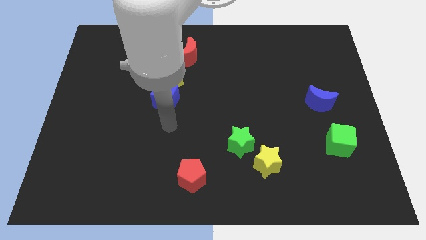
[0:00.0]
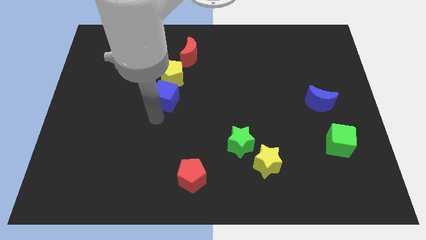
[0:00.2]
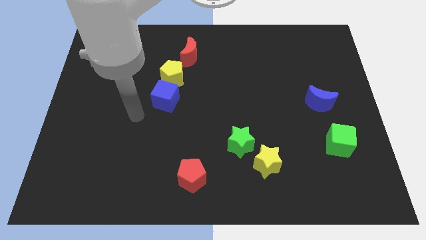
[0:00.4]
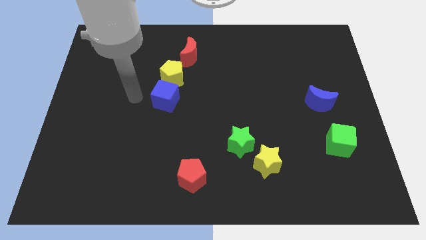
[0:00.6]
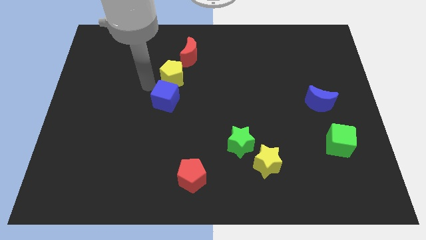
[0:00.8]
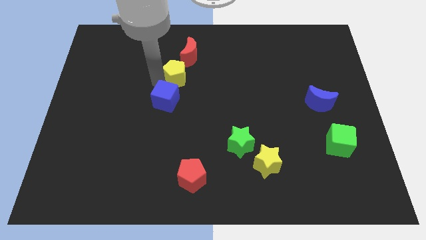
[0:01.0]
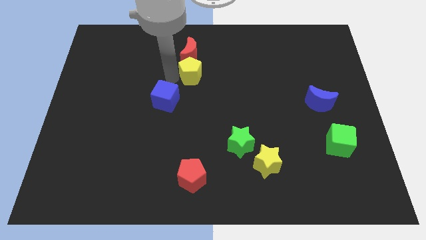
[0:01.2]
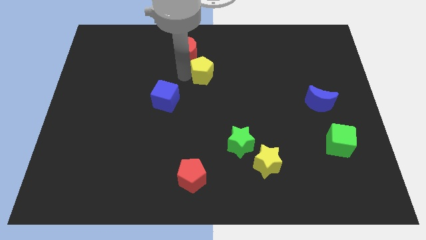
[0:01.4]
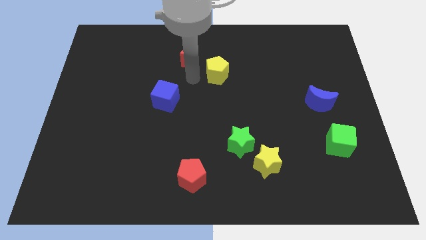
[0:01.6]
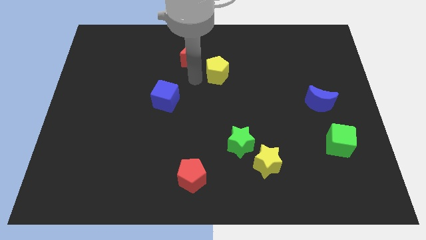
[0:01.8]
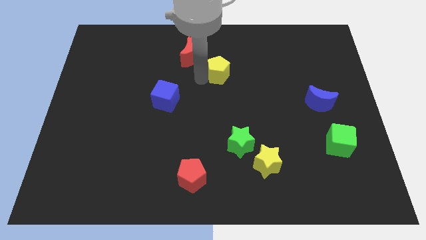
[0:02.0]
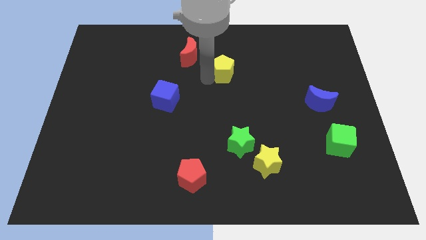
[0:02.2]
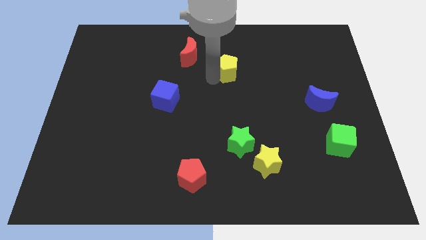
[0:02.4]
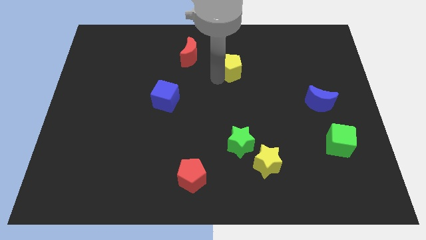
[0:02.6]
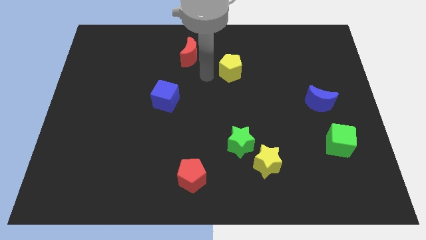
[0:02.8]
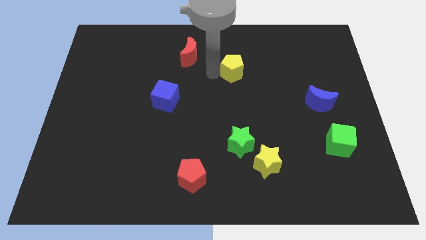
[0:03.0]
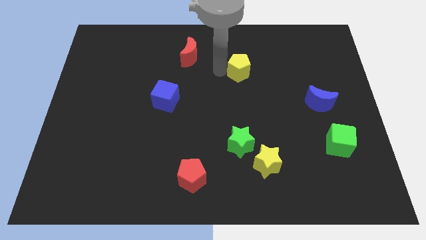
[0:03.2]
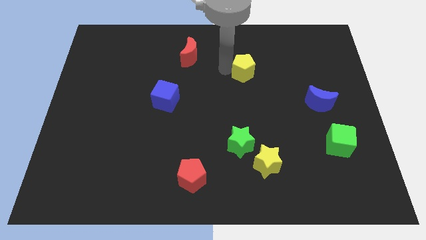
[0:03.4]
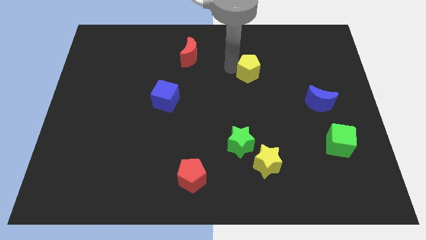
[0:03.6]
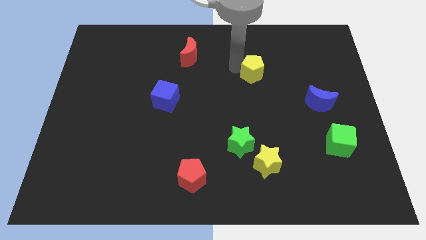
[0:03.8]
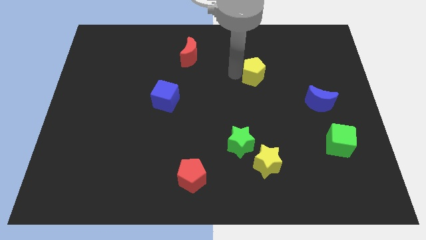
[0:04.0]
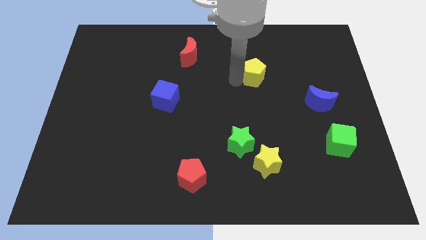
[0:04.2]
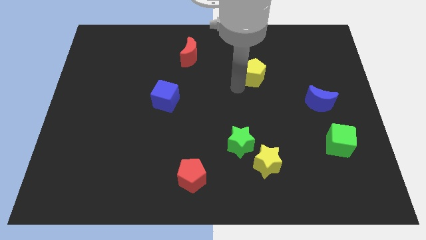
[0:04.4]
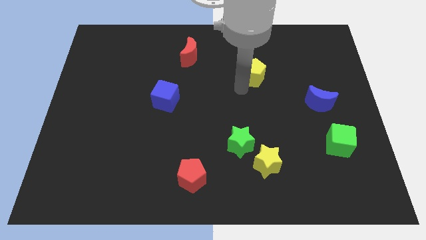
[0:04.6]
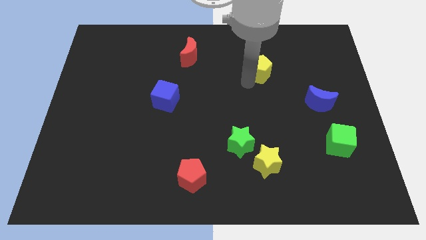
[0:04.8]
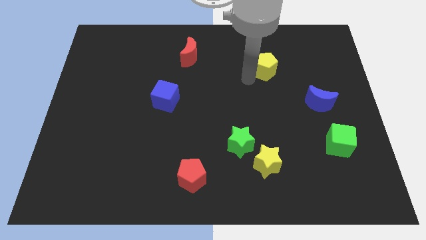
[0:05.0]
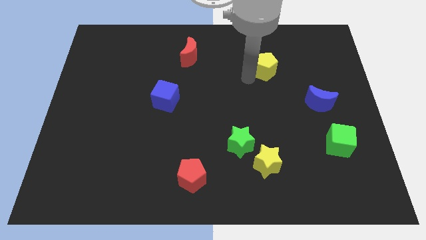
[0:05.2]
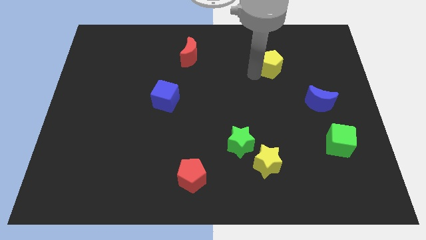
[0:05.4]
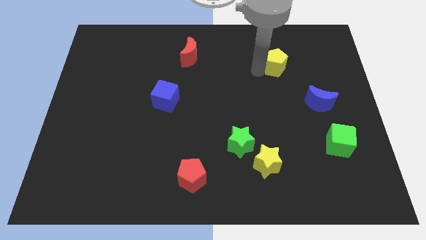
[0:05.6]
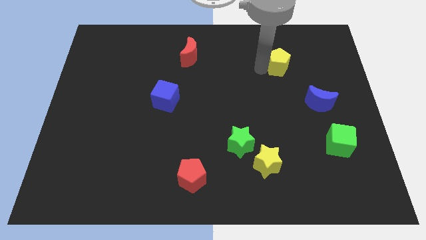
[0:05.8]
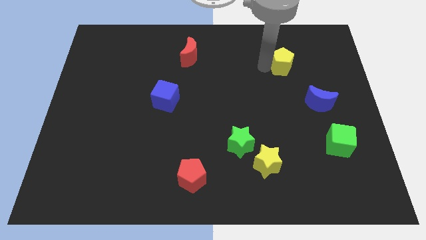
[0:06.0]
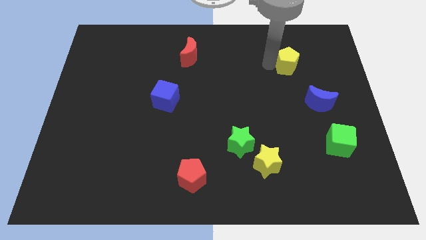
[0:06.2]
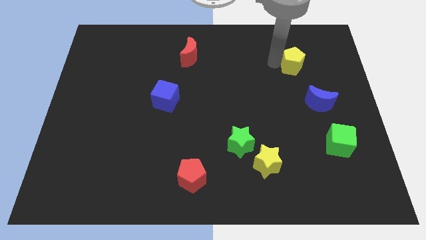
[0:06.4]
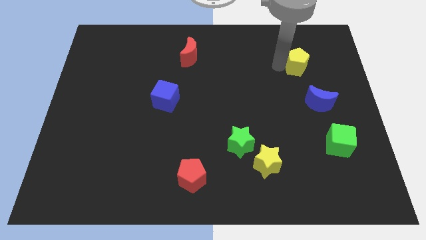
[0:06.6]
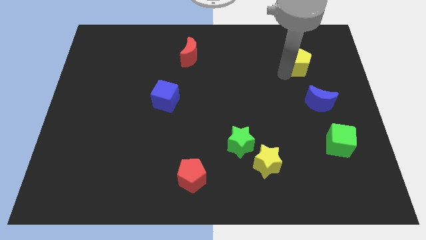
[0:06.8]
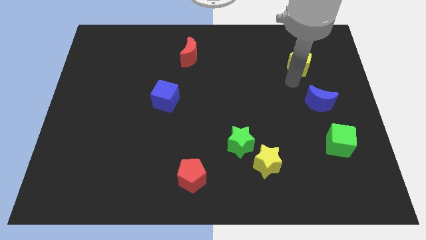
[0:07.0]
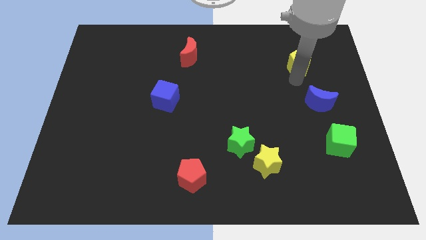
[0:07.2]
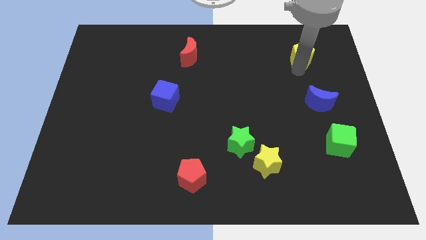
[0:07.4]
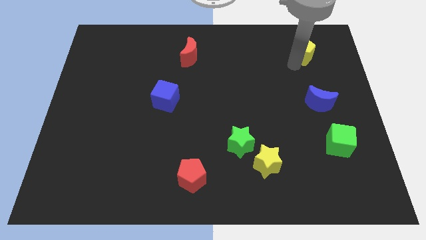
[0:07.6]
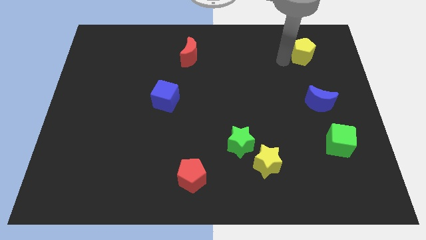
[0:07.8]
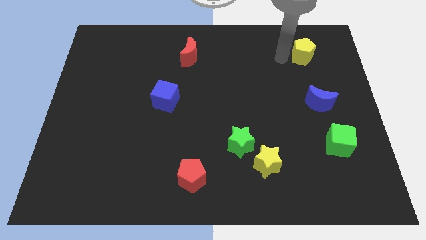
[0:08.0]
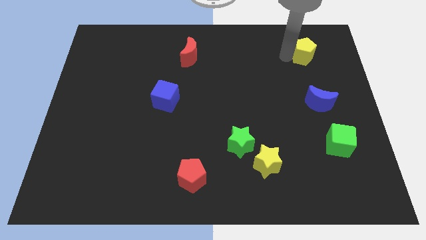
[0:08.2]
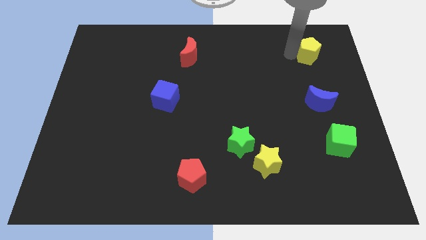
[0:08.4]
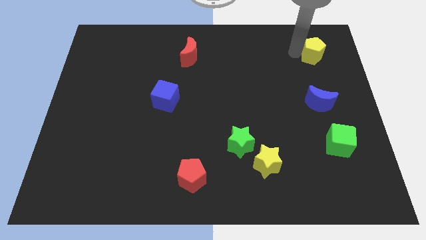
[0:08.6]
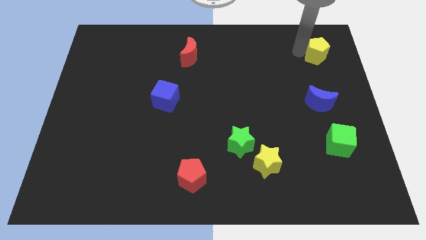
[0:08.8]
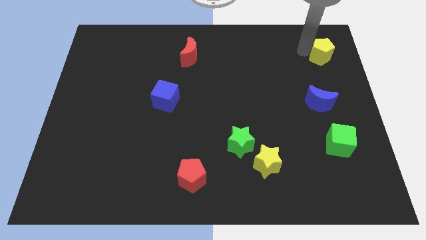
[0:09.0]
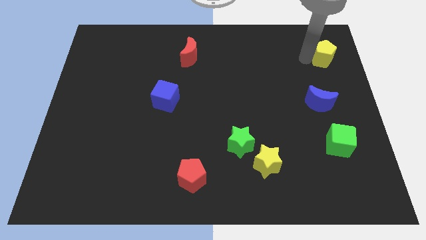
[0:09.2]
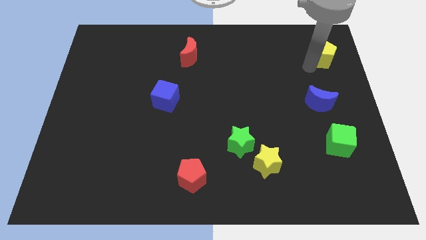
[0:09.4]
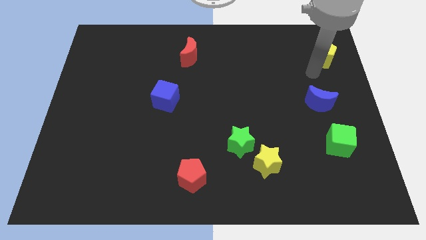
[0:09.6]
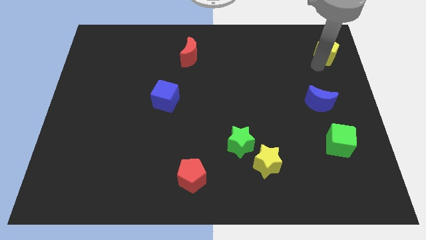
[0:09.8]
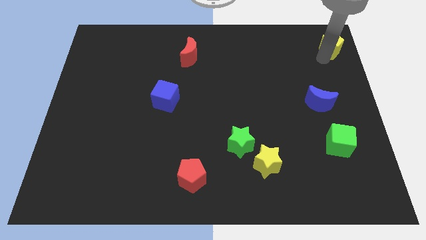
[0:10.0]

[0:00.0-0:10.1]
move the yellow pentagon to the top right corner

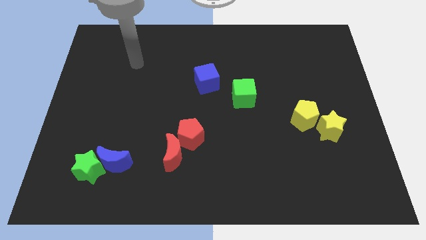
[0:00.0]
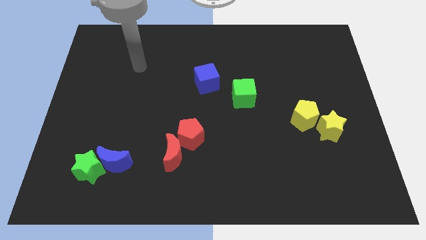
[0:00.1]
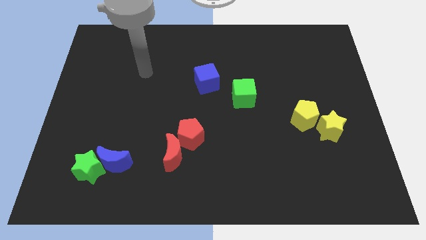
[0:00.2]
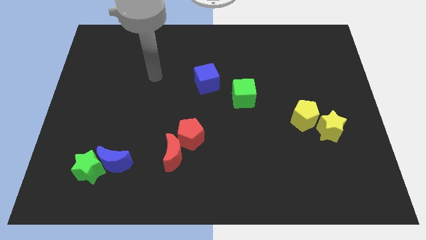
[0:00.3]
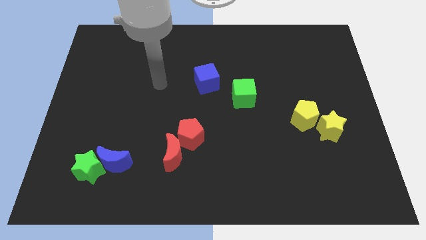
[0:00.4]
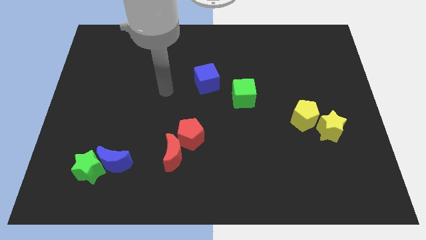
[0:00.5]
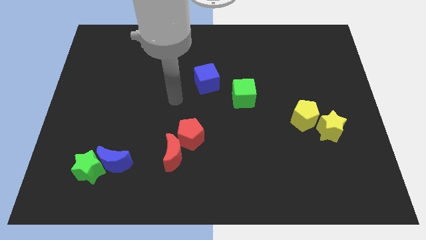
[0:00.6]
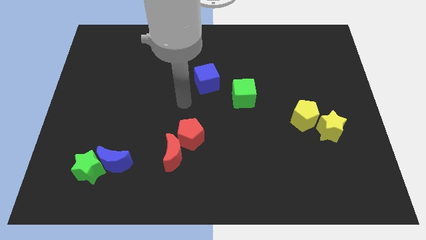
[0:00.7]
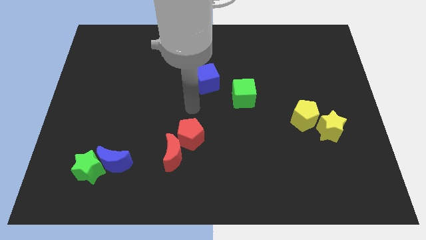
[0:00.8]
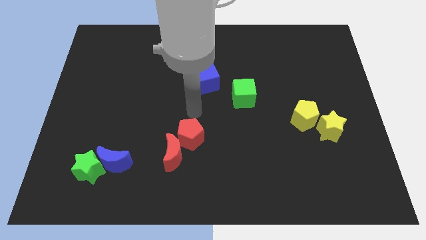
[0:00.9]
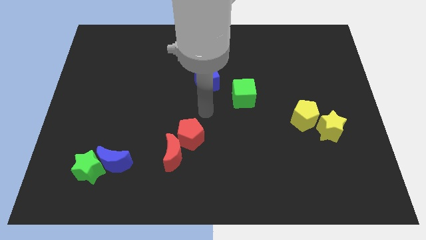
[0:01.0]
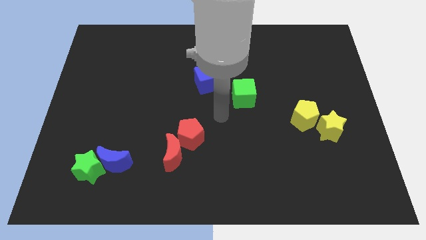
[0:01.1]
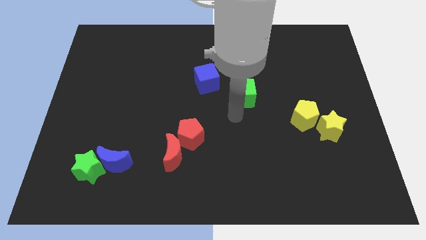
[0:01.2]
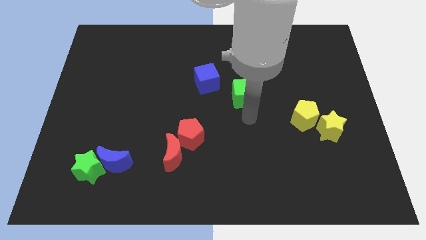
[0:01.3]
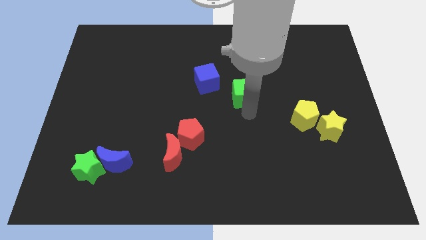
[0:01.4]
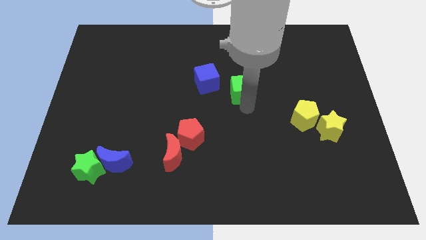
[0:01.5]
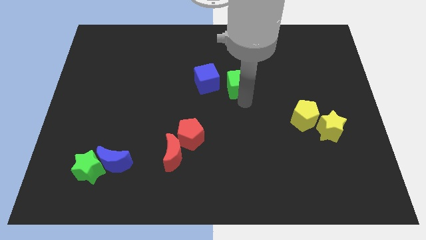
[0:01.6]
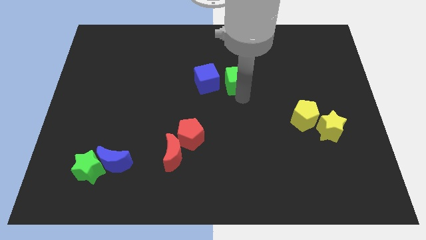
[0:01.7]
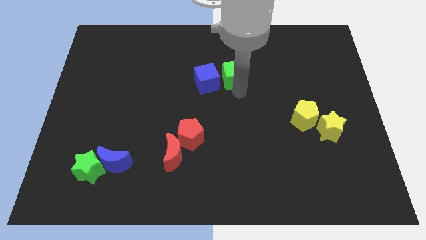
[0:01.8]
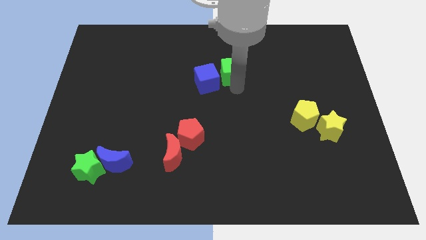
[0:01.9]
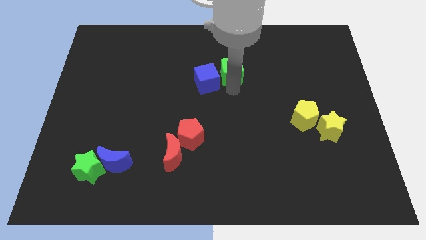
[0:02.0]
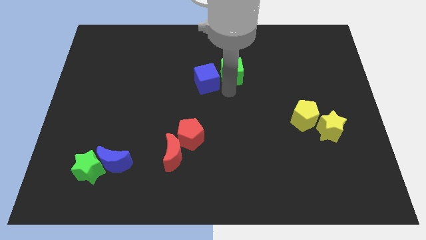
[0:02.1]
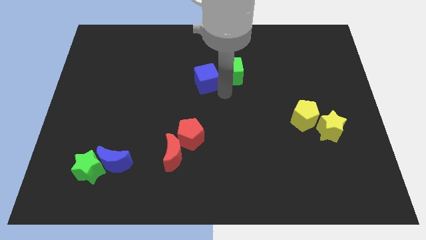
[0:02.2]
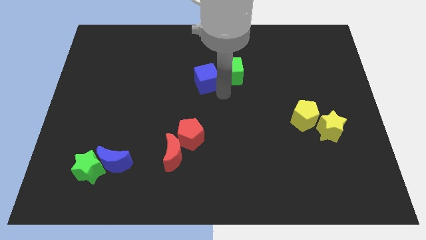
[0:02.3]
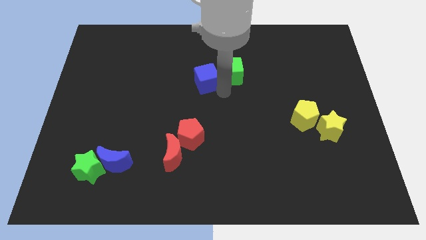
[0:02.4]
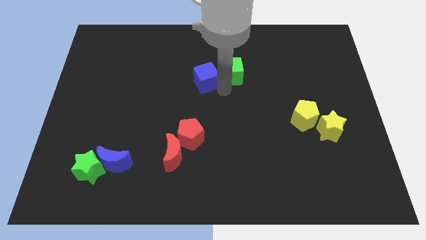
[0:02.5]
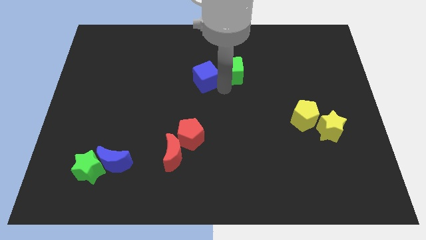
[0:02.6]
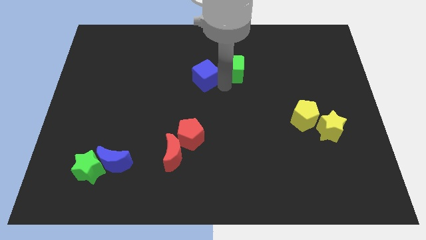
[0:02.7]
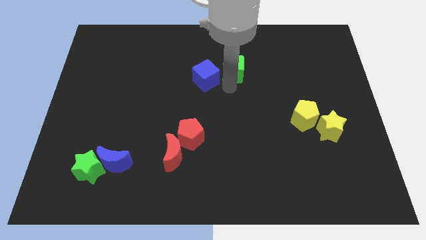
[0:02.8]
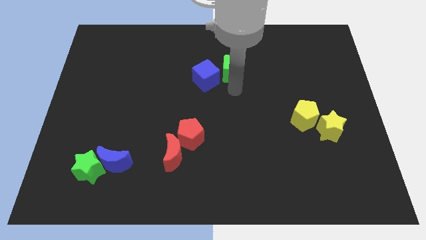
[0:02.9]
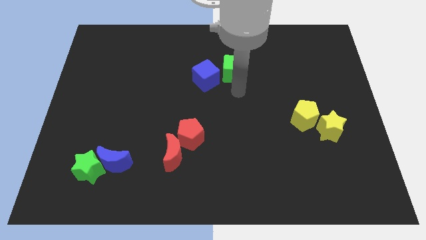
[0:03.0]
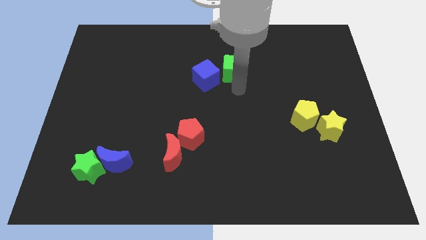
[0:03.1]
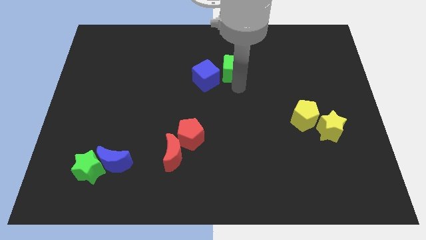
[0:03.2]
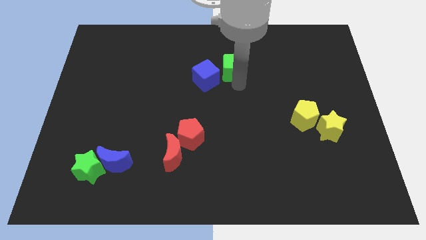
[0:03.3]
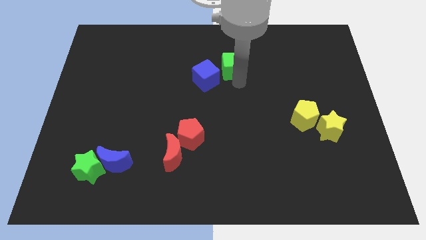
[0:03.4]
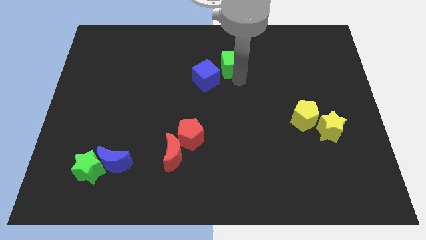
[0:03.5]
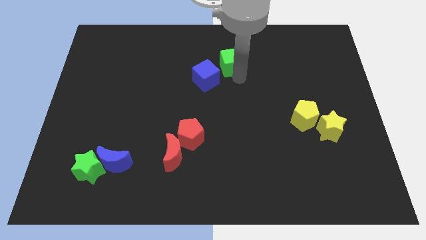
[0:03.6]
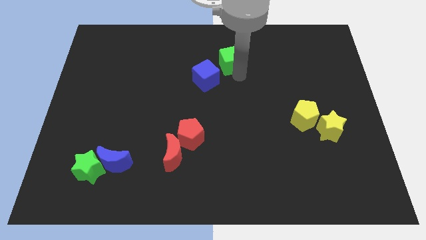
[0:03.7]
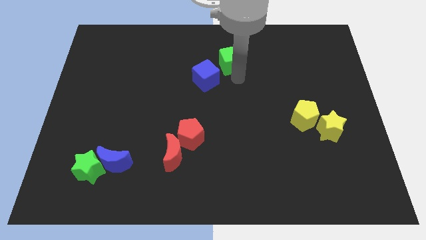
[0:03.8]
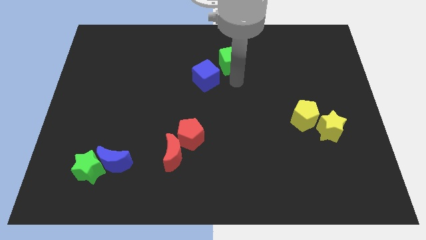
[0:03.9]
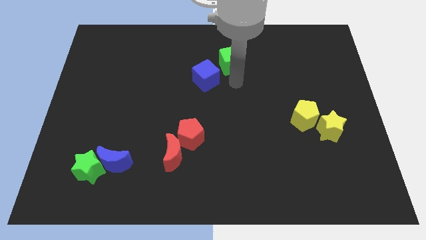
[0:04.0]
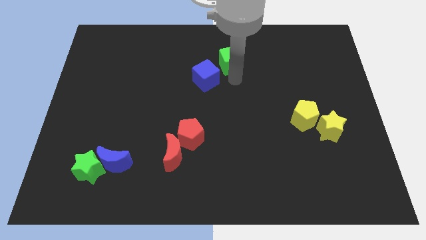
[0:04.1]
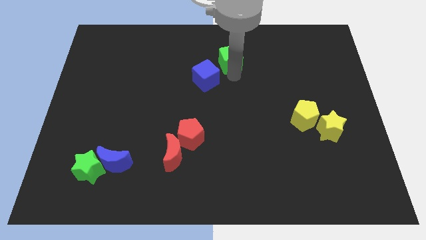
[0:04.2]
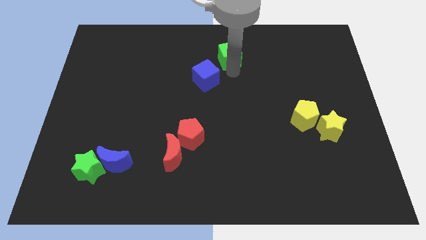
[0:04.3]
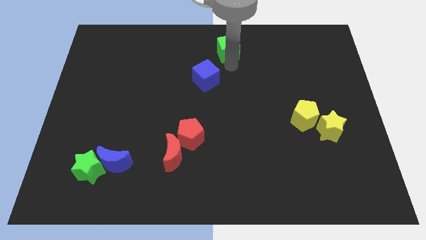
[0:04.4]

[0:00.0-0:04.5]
move the green cube to the top side
